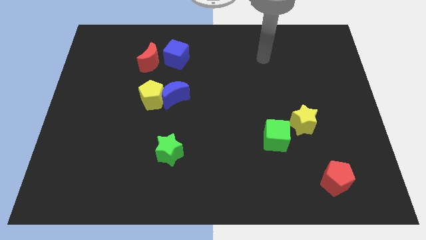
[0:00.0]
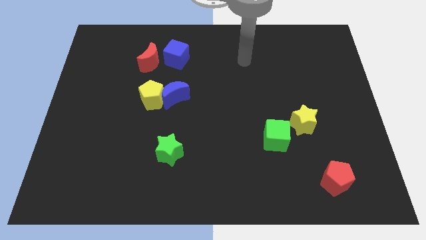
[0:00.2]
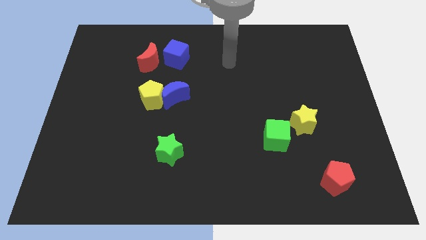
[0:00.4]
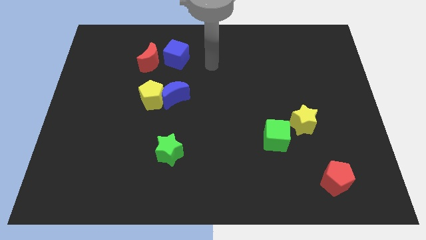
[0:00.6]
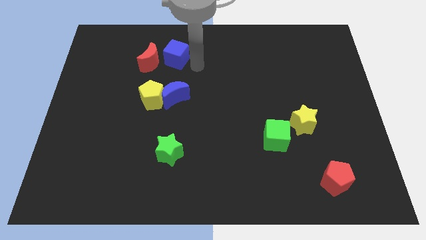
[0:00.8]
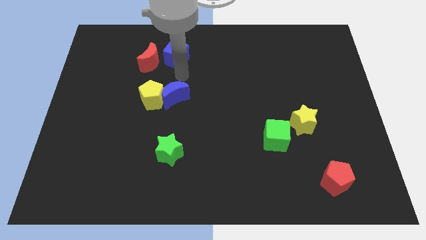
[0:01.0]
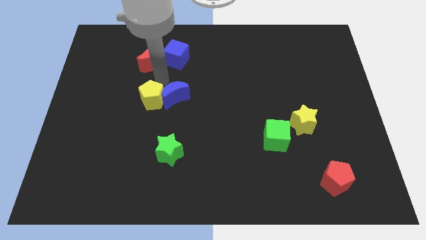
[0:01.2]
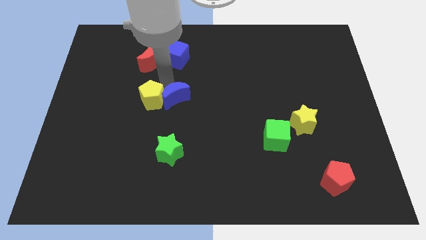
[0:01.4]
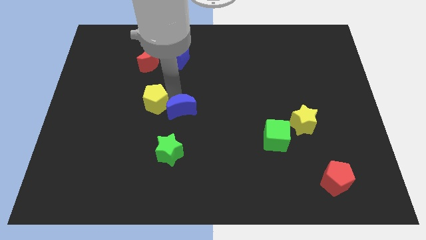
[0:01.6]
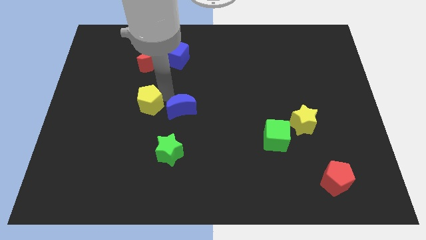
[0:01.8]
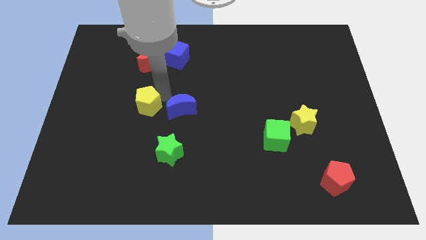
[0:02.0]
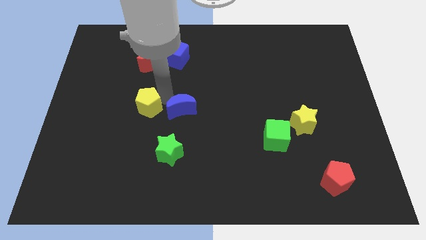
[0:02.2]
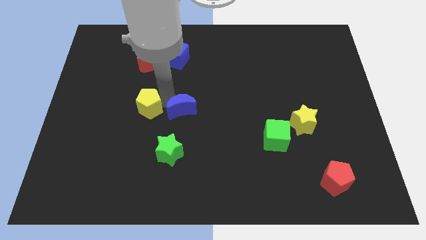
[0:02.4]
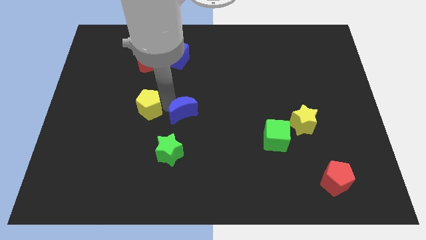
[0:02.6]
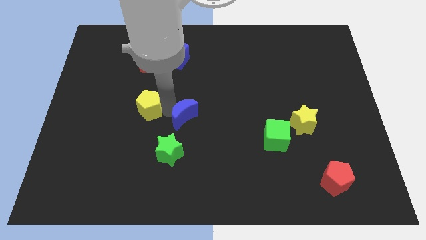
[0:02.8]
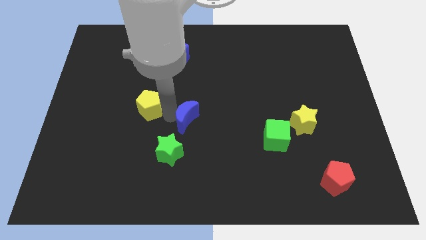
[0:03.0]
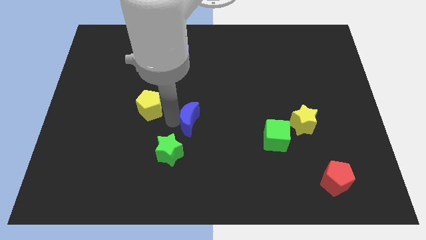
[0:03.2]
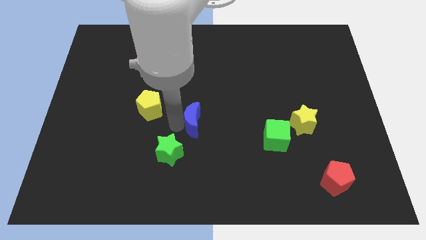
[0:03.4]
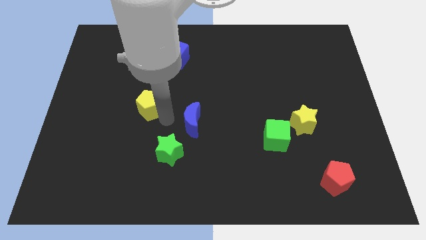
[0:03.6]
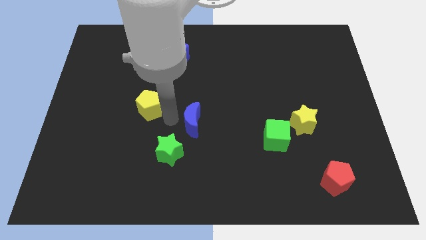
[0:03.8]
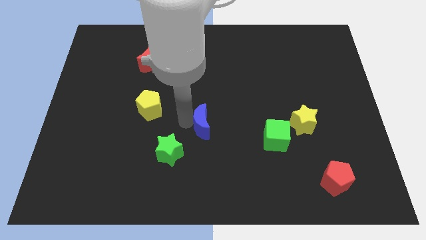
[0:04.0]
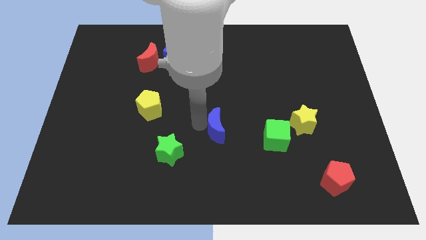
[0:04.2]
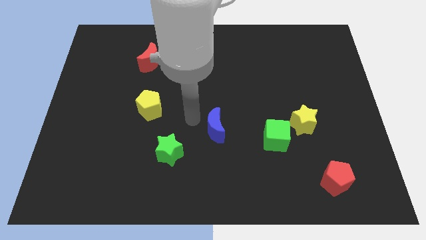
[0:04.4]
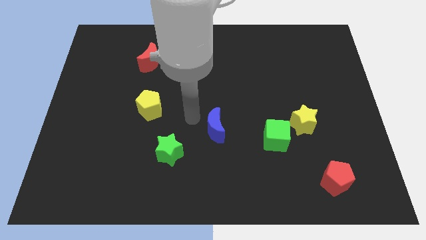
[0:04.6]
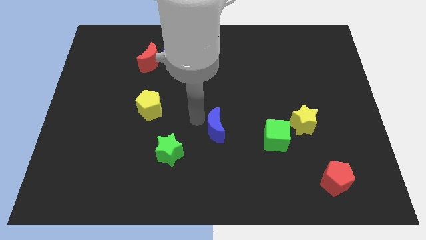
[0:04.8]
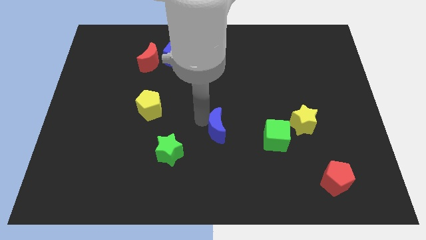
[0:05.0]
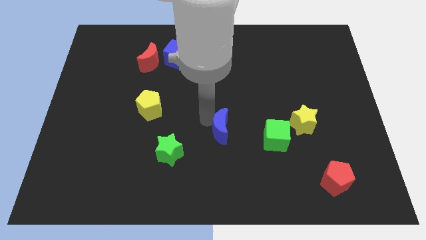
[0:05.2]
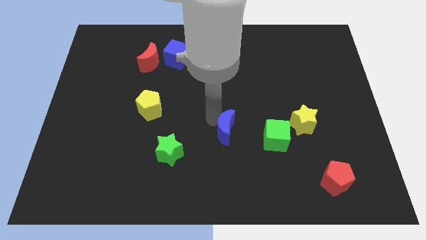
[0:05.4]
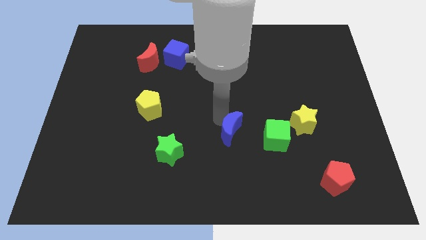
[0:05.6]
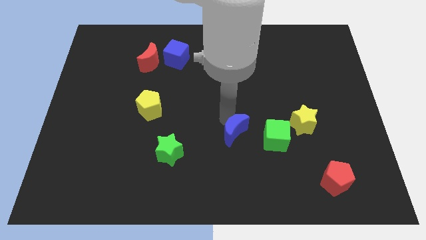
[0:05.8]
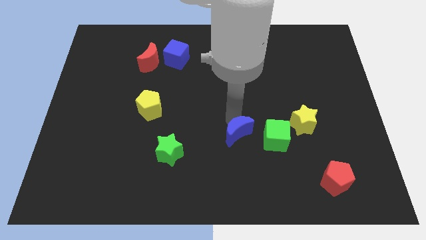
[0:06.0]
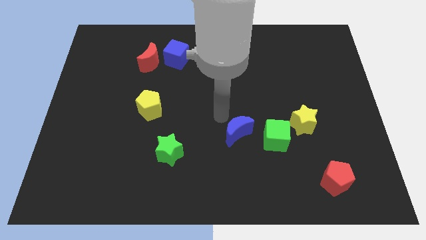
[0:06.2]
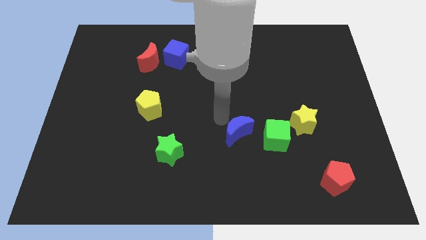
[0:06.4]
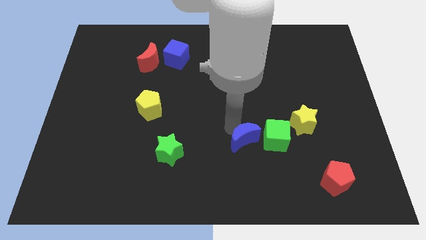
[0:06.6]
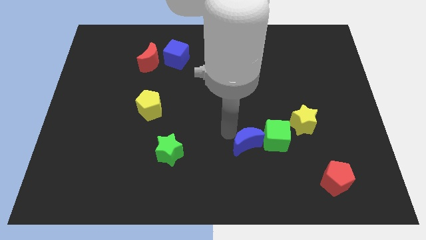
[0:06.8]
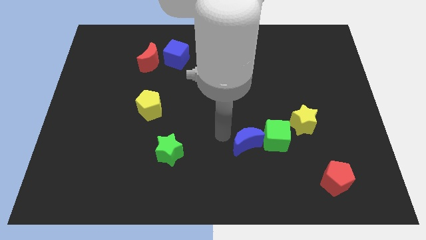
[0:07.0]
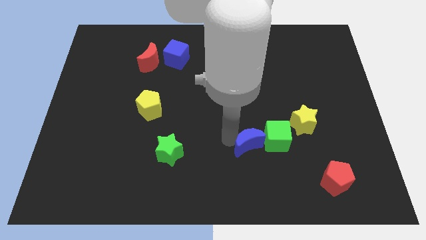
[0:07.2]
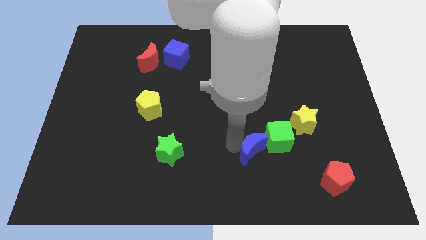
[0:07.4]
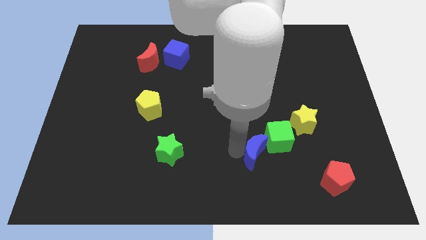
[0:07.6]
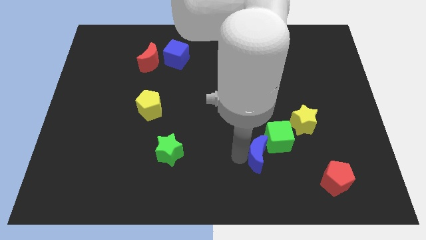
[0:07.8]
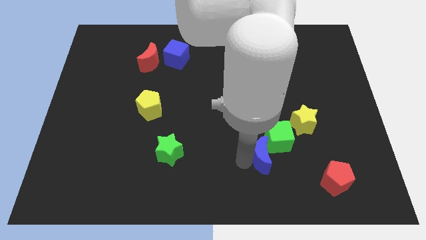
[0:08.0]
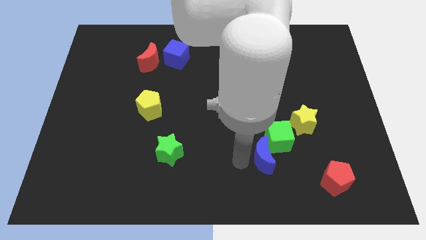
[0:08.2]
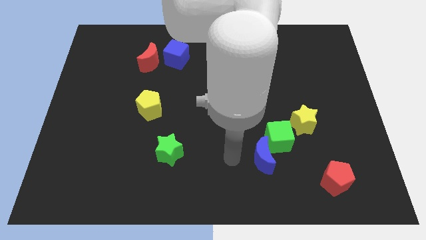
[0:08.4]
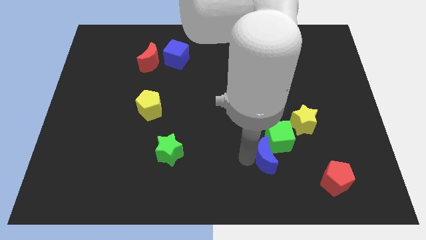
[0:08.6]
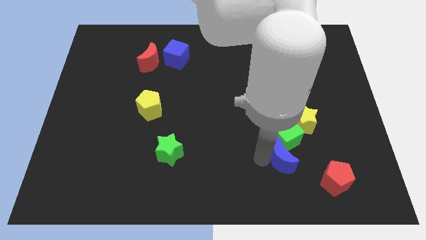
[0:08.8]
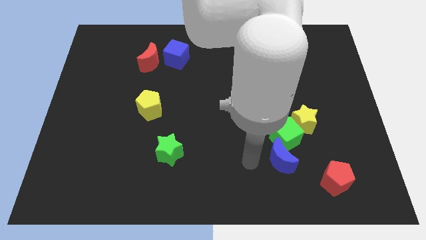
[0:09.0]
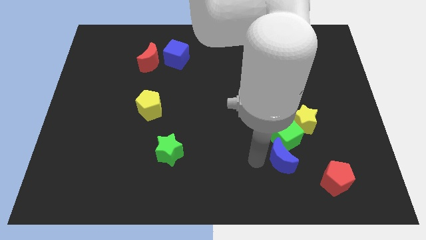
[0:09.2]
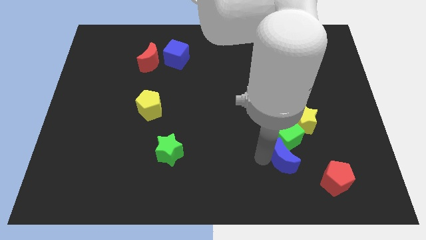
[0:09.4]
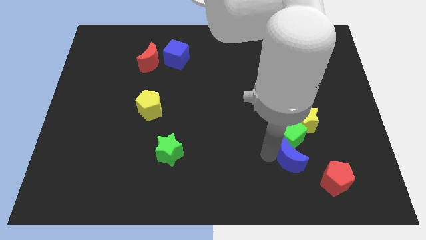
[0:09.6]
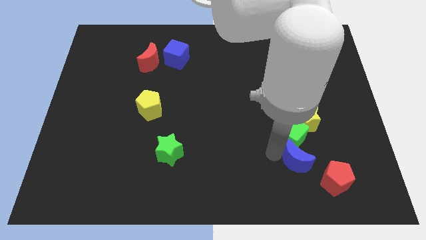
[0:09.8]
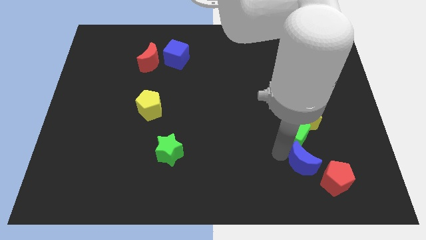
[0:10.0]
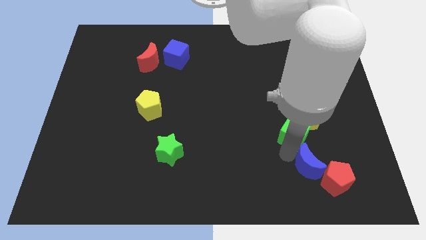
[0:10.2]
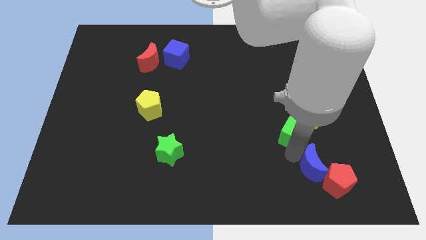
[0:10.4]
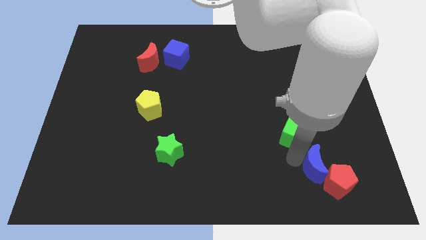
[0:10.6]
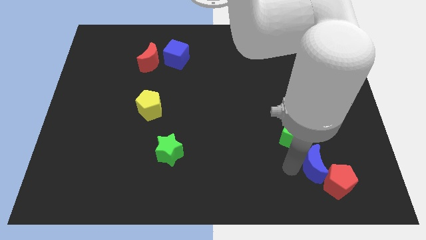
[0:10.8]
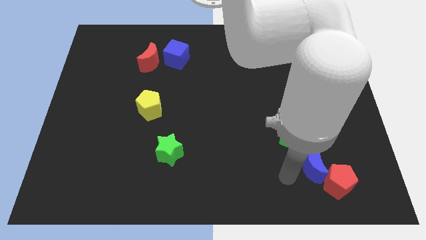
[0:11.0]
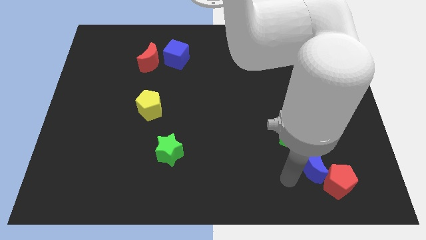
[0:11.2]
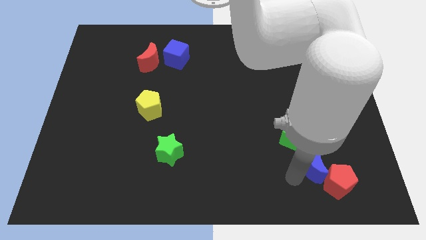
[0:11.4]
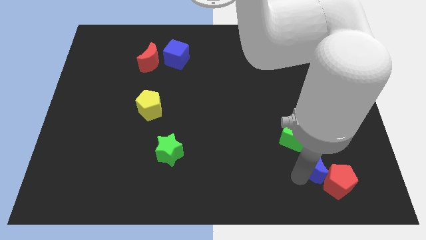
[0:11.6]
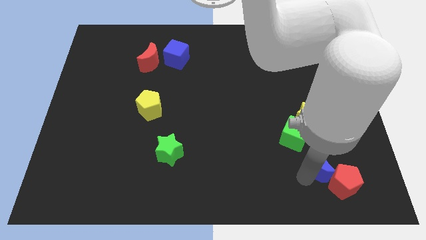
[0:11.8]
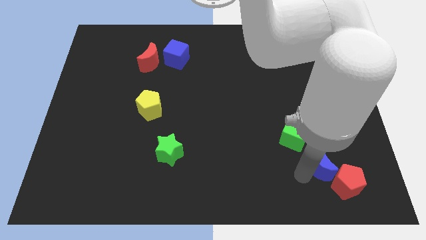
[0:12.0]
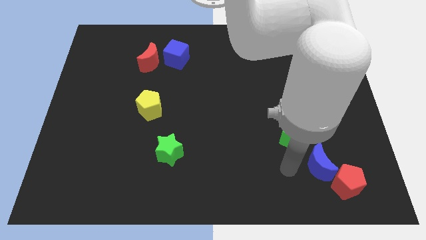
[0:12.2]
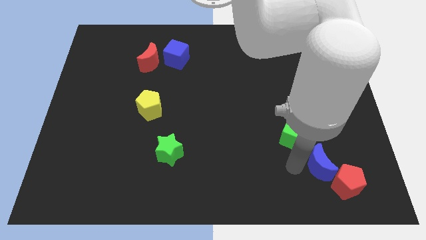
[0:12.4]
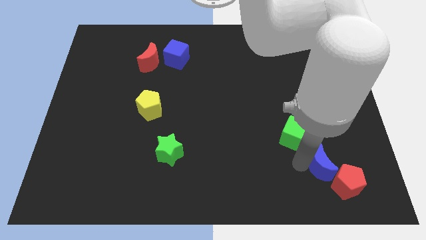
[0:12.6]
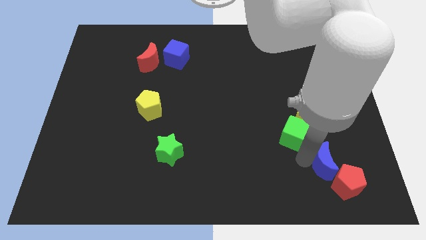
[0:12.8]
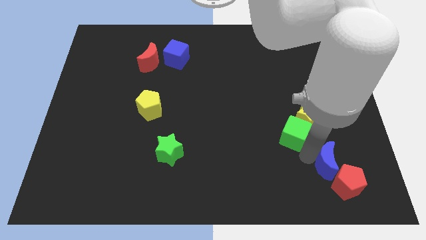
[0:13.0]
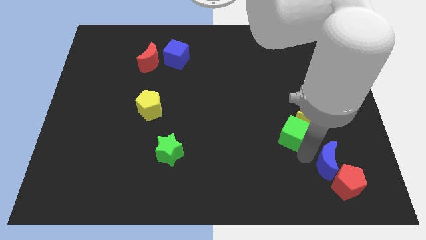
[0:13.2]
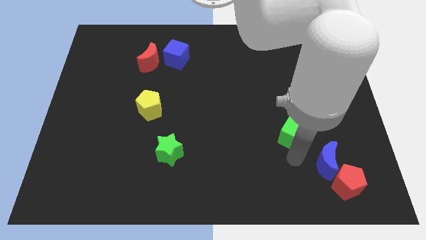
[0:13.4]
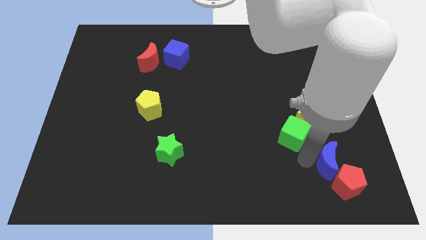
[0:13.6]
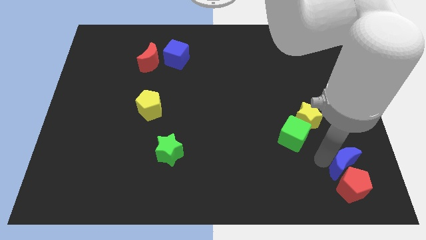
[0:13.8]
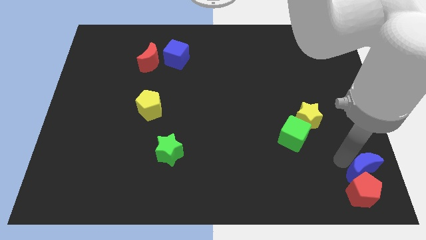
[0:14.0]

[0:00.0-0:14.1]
push the blue moon to the bottom right of the board
